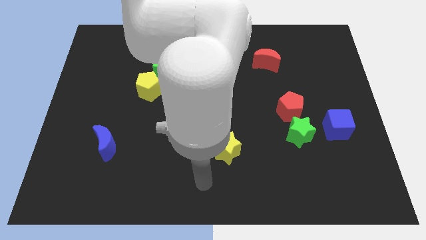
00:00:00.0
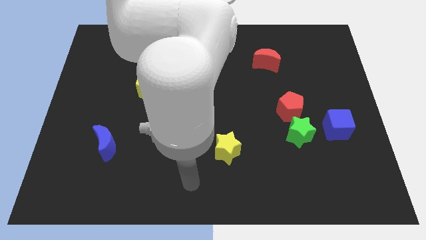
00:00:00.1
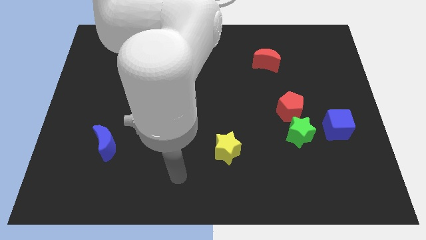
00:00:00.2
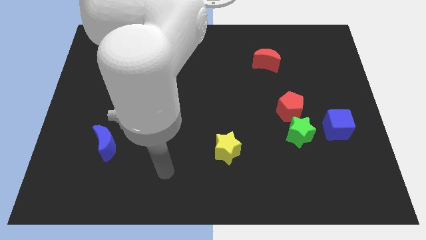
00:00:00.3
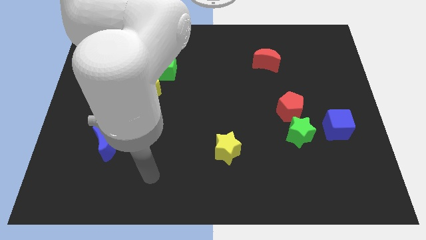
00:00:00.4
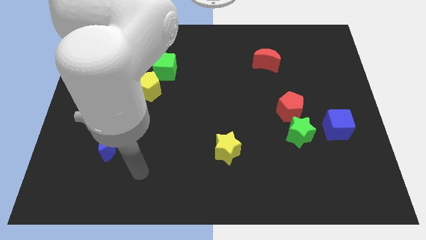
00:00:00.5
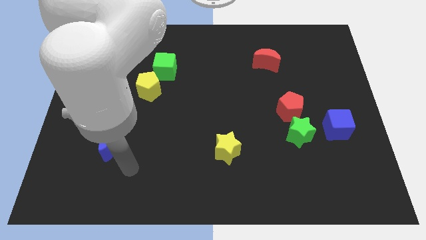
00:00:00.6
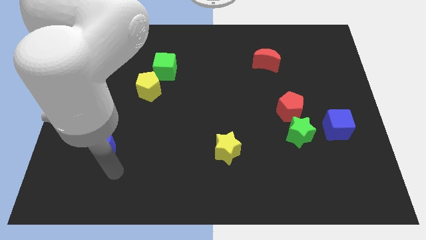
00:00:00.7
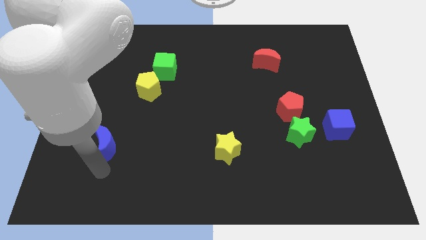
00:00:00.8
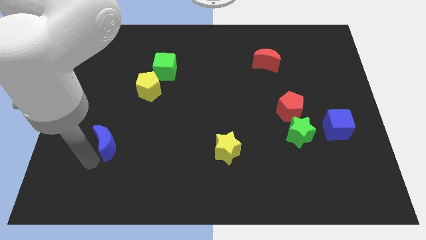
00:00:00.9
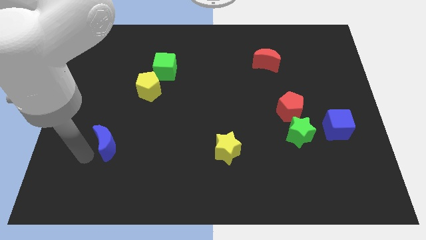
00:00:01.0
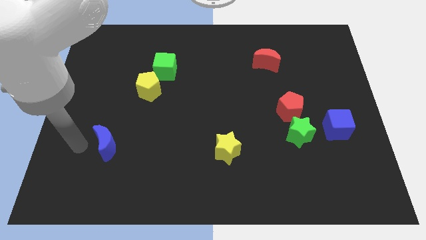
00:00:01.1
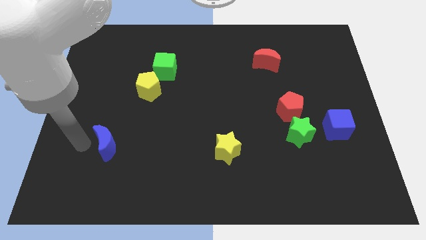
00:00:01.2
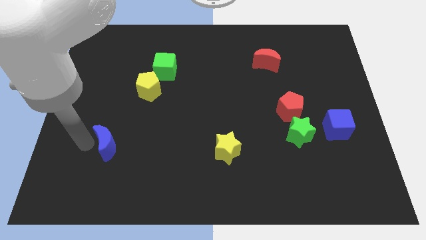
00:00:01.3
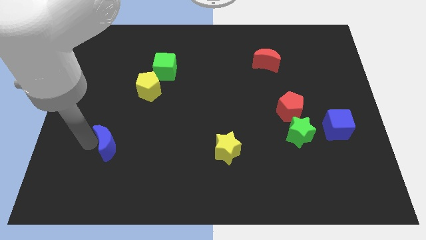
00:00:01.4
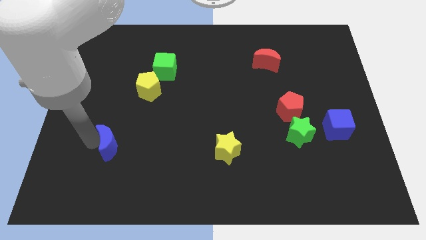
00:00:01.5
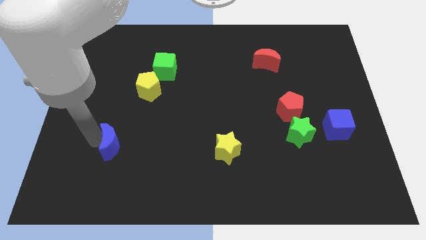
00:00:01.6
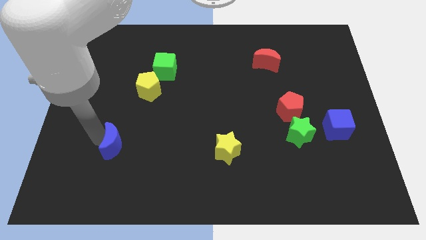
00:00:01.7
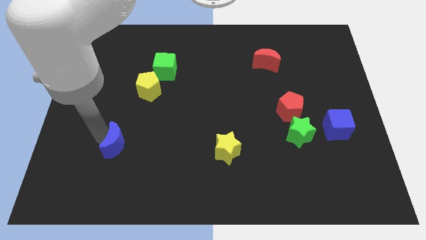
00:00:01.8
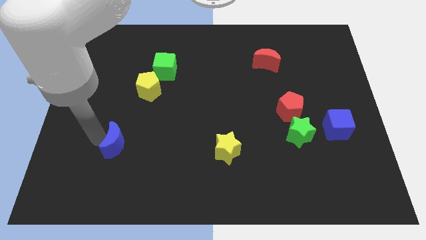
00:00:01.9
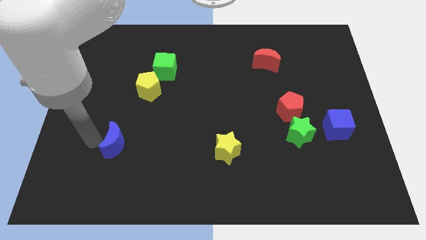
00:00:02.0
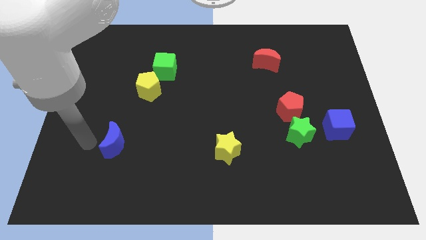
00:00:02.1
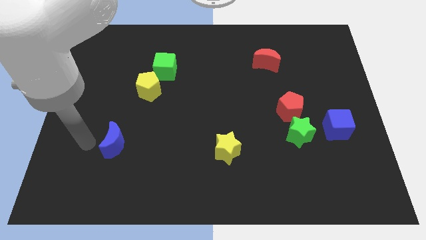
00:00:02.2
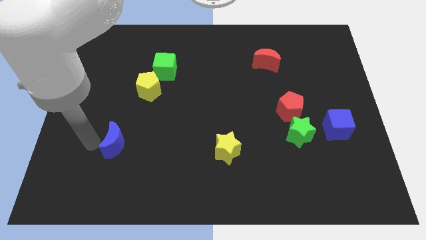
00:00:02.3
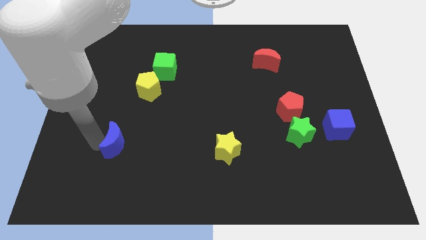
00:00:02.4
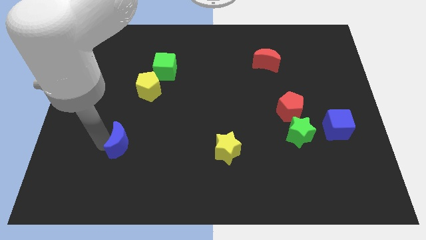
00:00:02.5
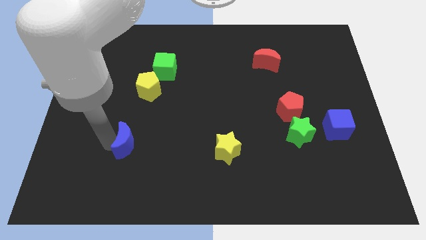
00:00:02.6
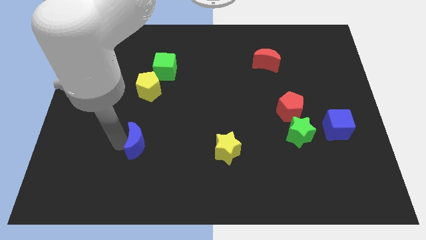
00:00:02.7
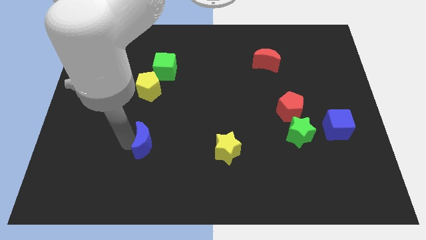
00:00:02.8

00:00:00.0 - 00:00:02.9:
push the blue moon right a little

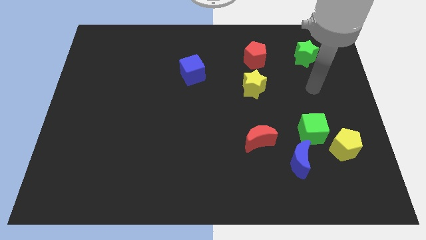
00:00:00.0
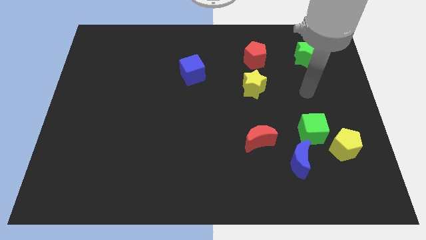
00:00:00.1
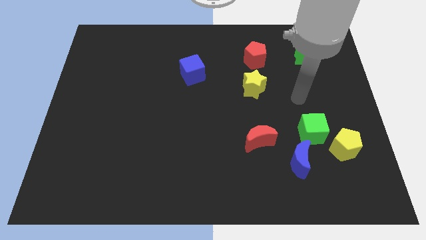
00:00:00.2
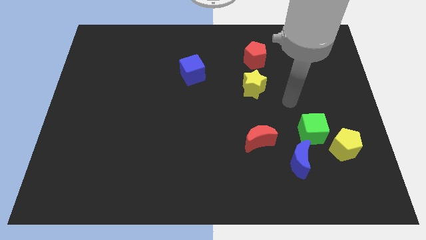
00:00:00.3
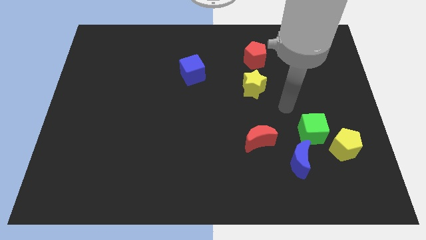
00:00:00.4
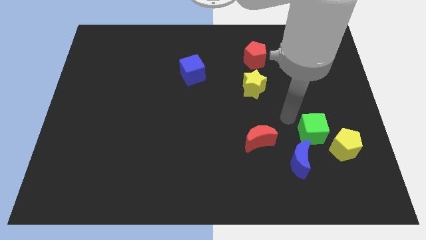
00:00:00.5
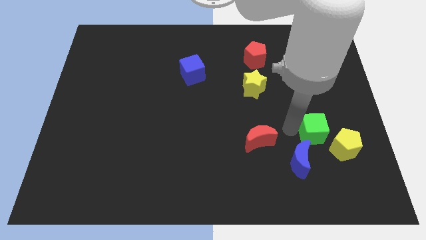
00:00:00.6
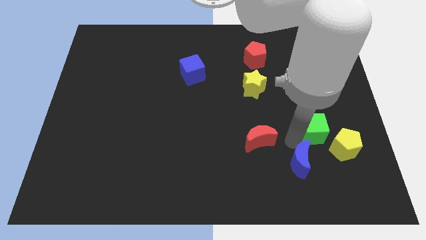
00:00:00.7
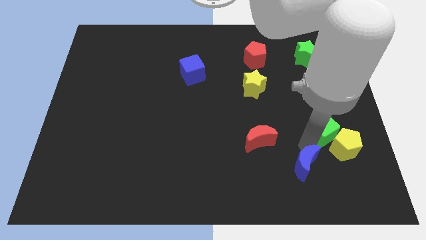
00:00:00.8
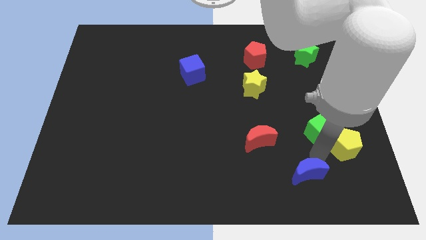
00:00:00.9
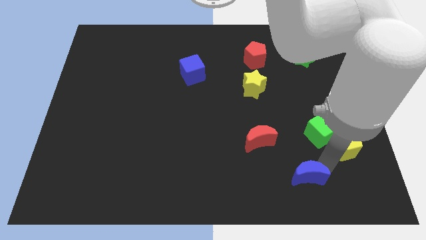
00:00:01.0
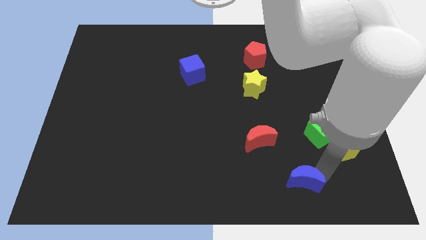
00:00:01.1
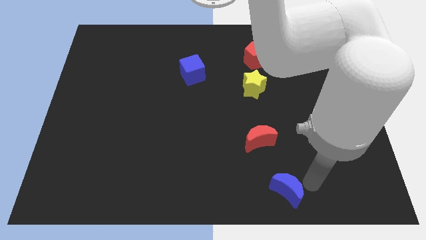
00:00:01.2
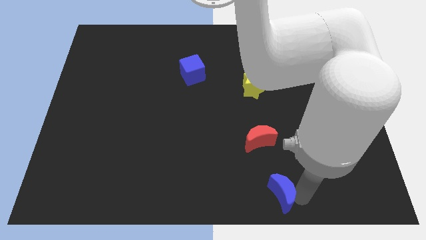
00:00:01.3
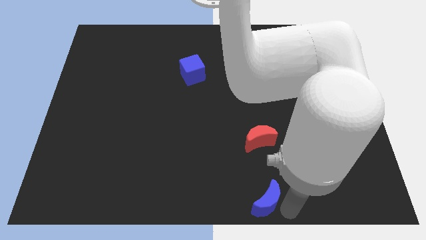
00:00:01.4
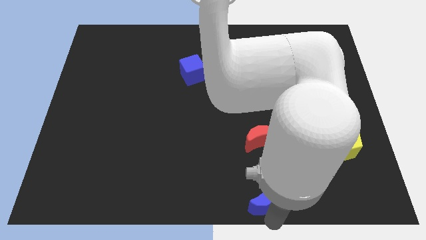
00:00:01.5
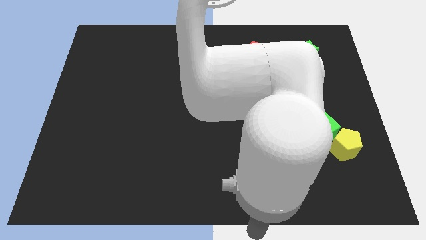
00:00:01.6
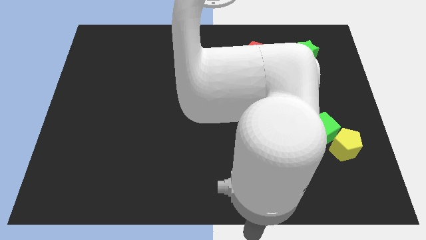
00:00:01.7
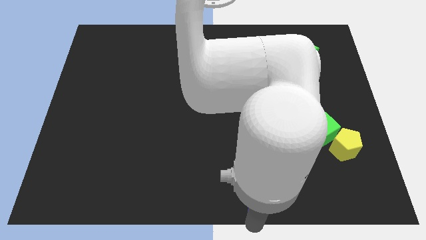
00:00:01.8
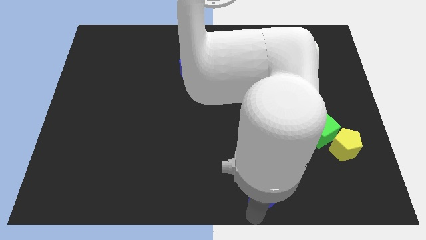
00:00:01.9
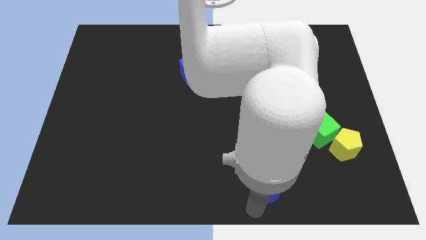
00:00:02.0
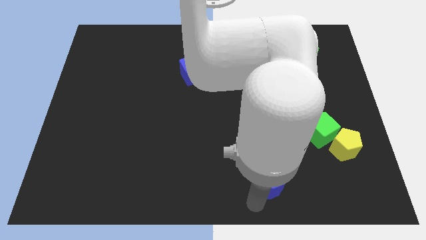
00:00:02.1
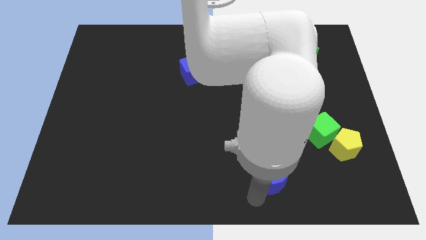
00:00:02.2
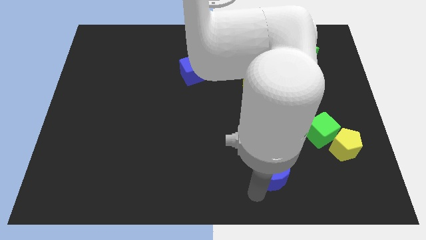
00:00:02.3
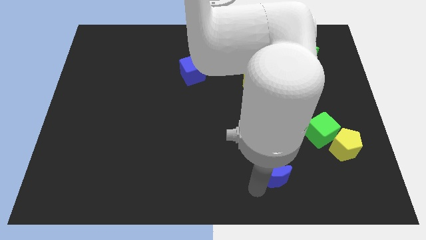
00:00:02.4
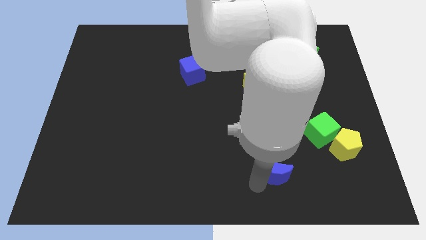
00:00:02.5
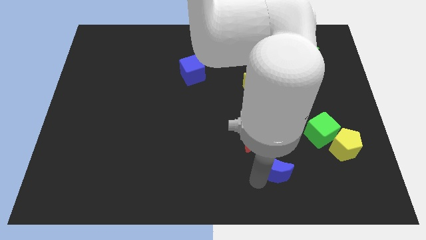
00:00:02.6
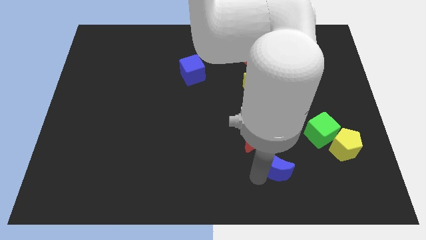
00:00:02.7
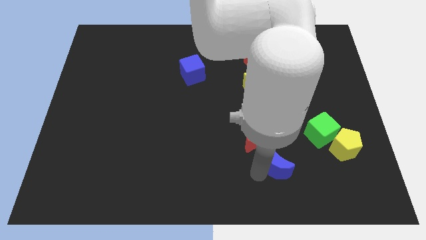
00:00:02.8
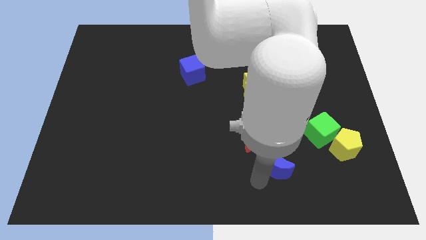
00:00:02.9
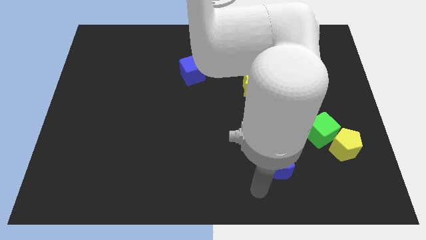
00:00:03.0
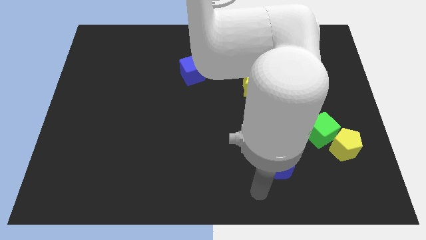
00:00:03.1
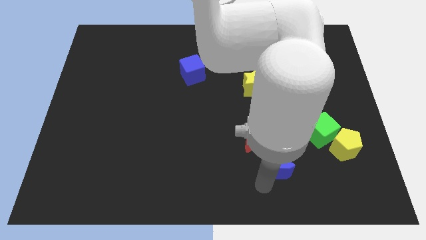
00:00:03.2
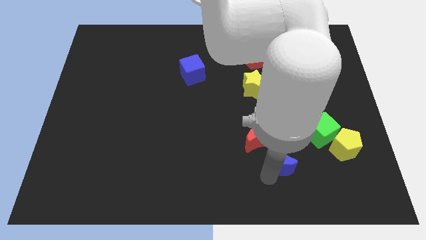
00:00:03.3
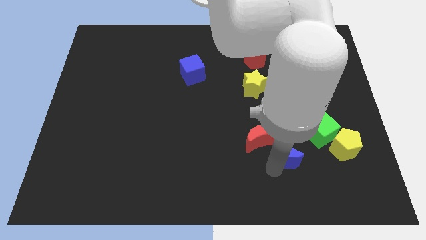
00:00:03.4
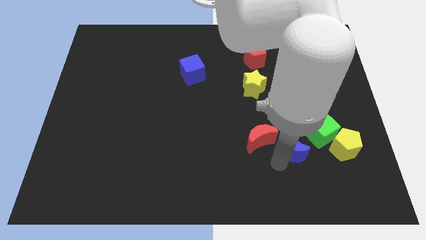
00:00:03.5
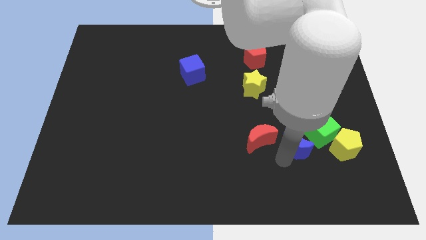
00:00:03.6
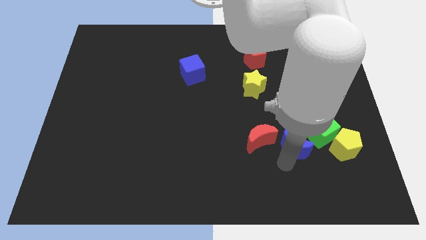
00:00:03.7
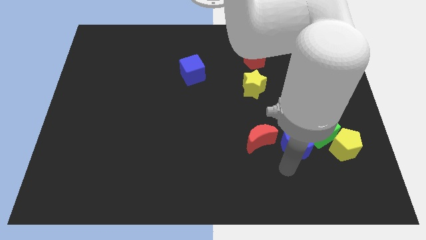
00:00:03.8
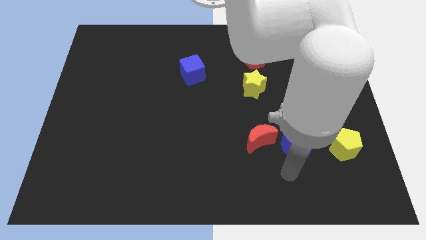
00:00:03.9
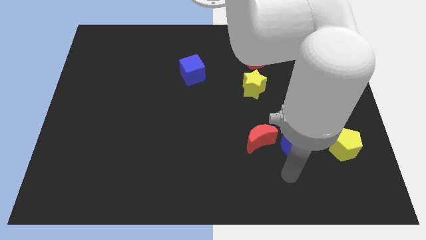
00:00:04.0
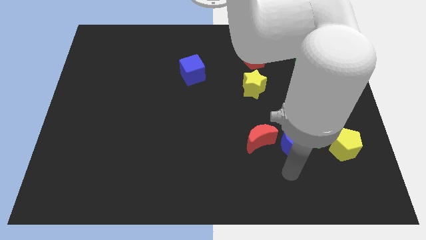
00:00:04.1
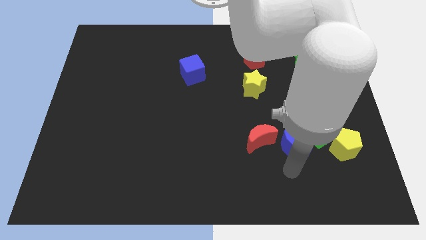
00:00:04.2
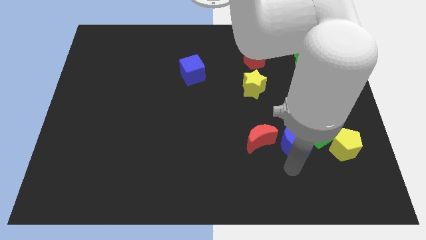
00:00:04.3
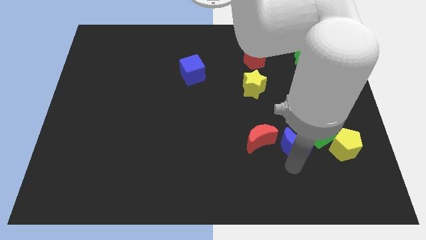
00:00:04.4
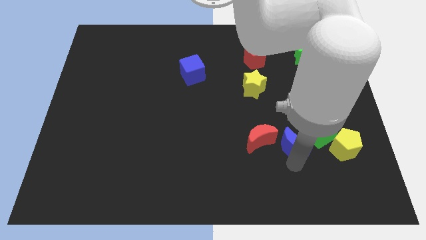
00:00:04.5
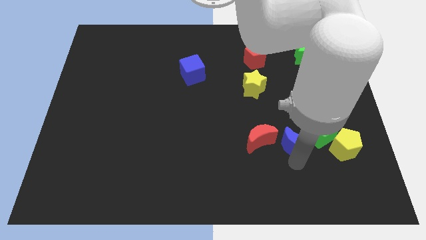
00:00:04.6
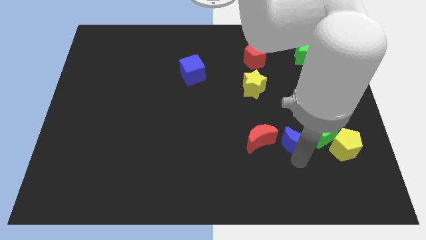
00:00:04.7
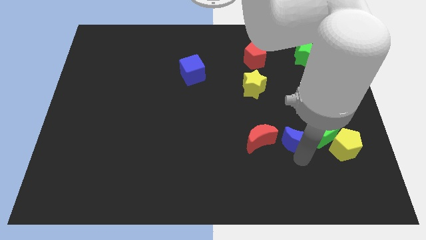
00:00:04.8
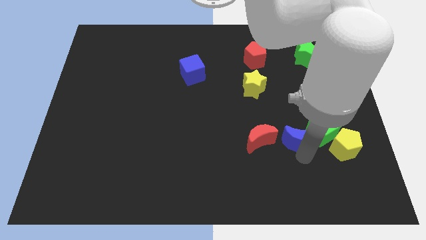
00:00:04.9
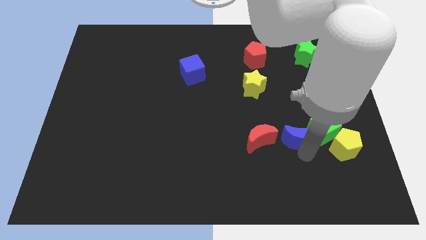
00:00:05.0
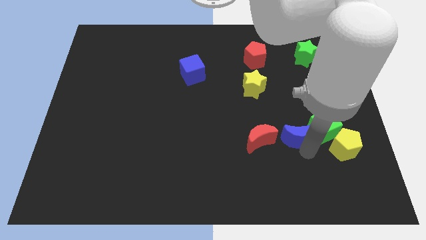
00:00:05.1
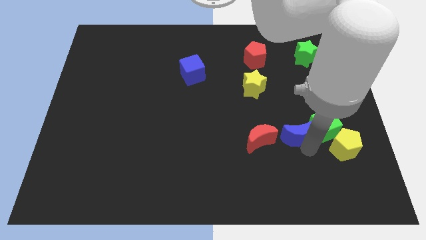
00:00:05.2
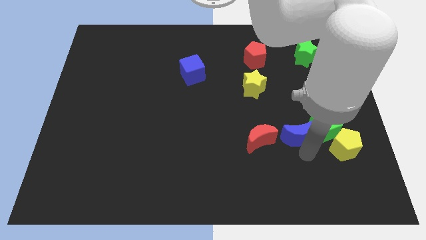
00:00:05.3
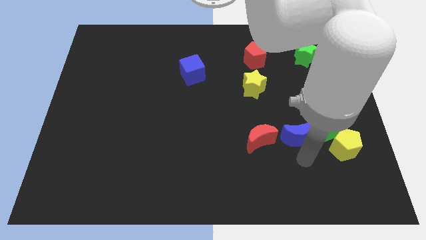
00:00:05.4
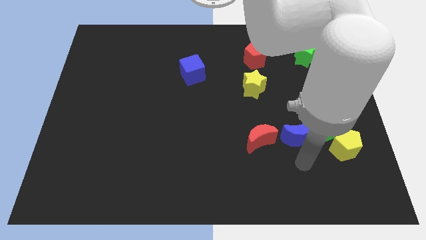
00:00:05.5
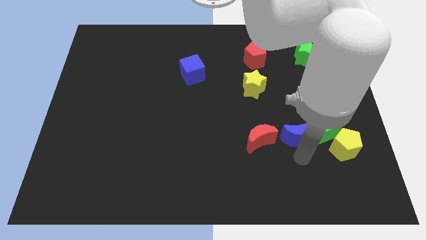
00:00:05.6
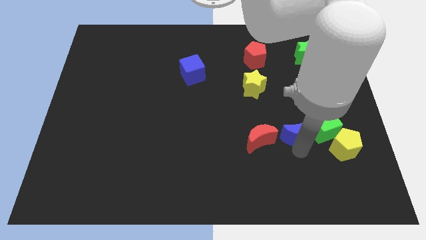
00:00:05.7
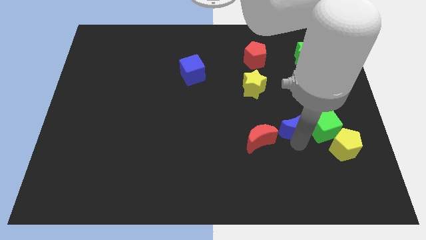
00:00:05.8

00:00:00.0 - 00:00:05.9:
move the blue moon a little bit upwards
